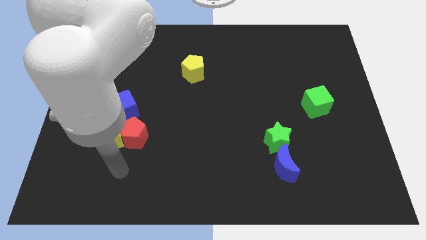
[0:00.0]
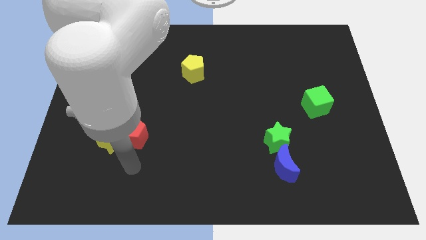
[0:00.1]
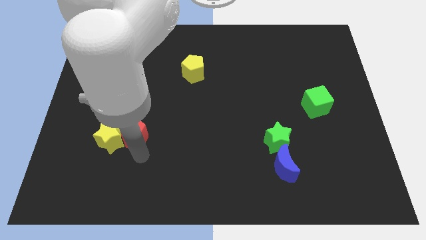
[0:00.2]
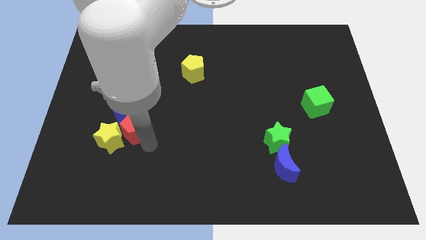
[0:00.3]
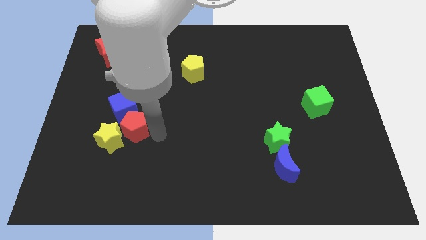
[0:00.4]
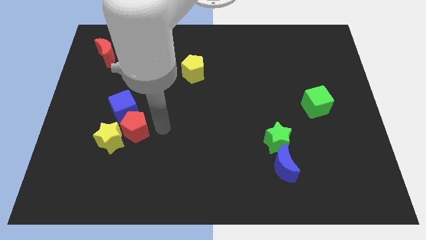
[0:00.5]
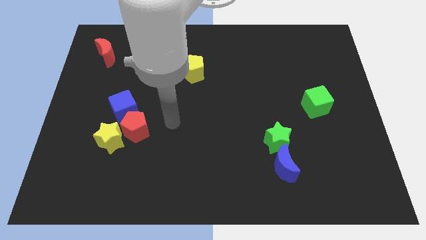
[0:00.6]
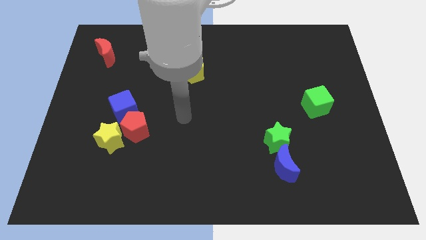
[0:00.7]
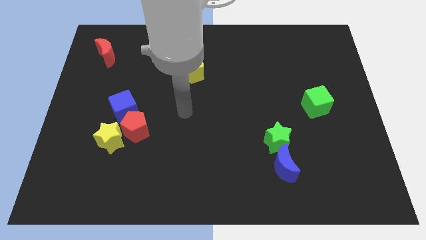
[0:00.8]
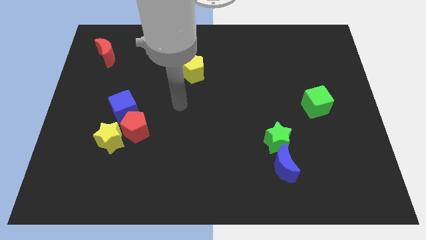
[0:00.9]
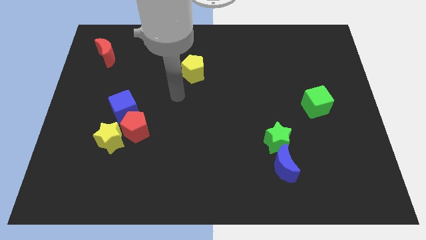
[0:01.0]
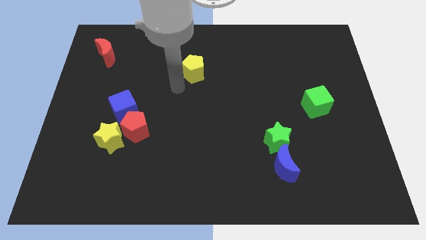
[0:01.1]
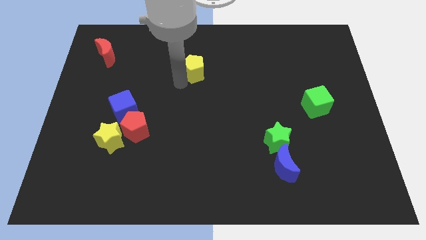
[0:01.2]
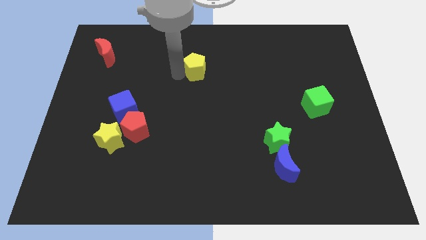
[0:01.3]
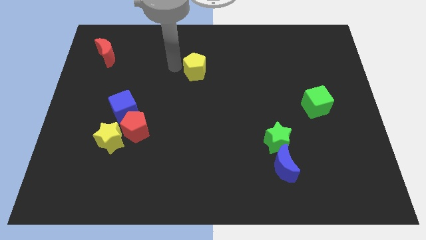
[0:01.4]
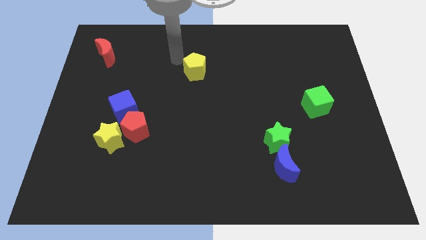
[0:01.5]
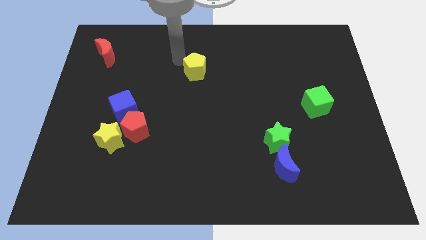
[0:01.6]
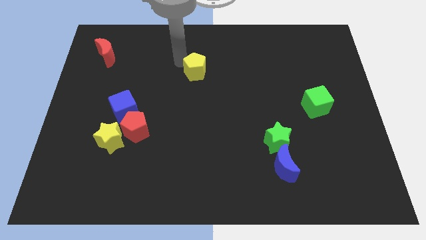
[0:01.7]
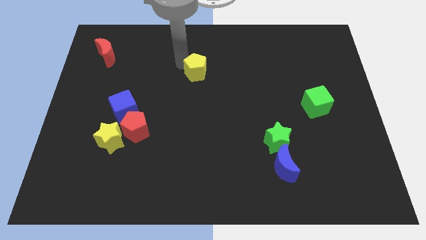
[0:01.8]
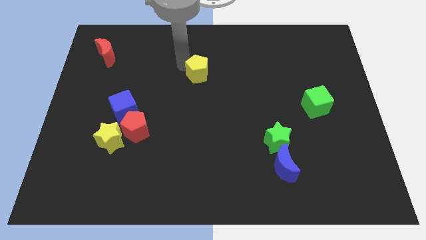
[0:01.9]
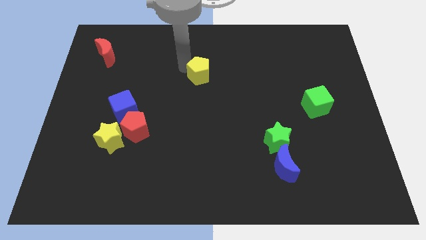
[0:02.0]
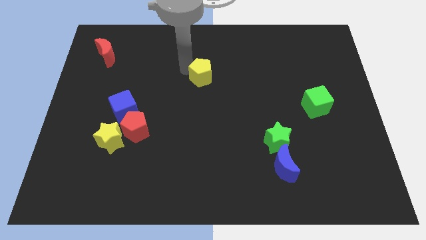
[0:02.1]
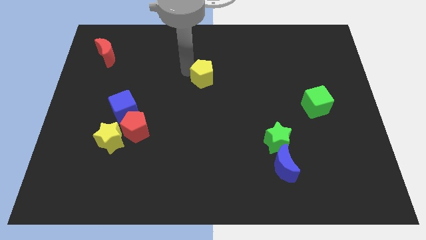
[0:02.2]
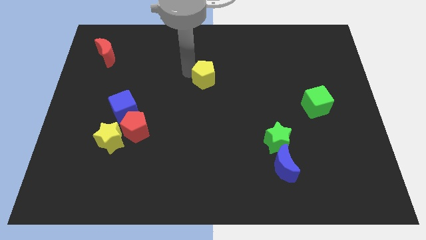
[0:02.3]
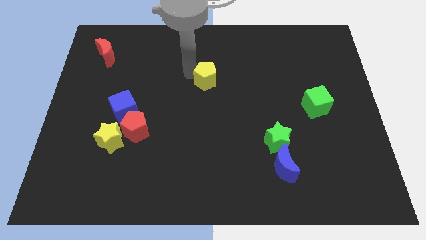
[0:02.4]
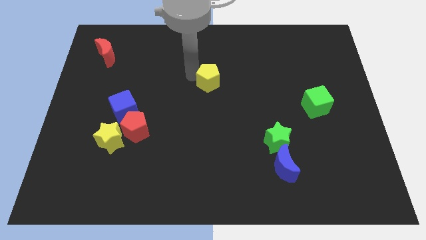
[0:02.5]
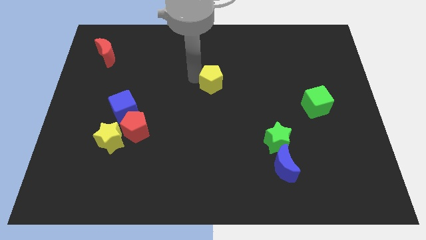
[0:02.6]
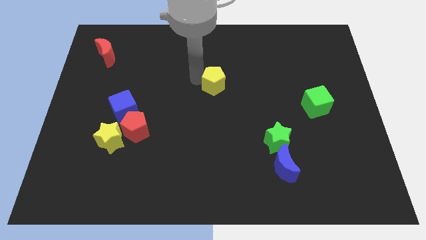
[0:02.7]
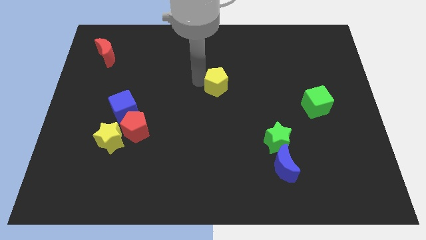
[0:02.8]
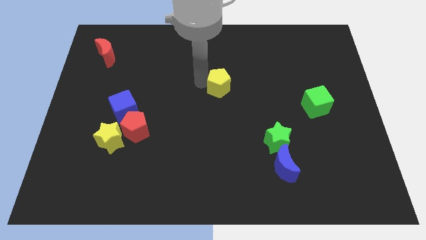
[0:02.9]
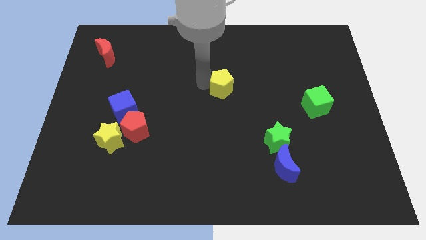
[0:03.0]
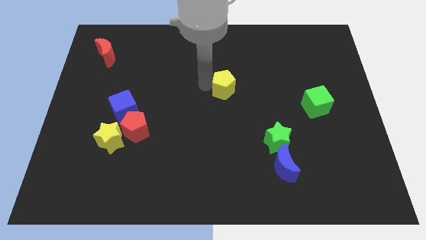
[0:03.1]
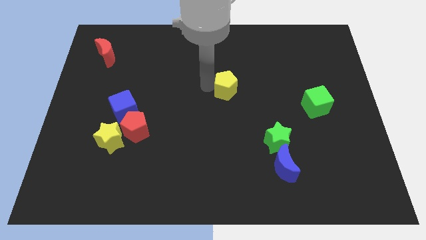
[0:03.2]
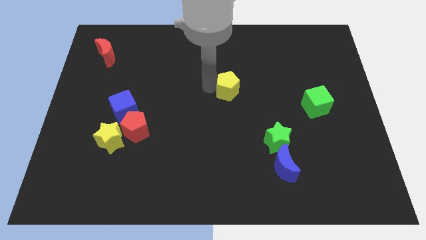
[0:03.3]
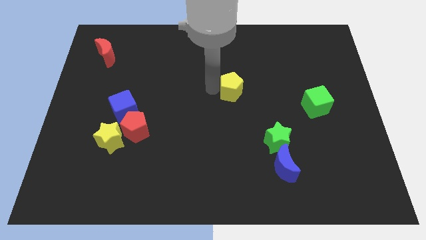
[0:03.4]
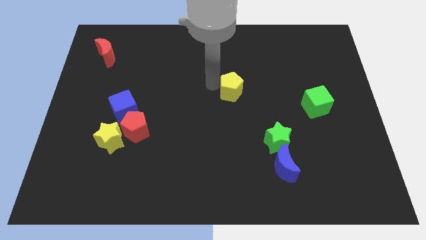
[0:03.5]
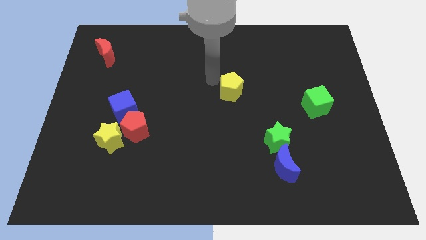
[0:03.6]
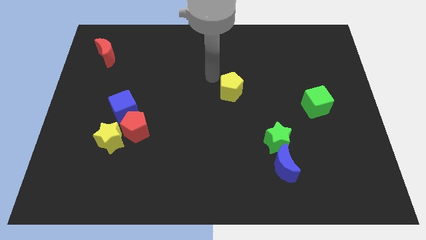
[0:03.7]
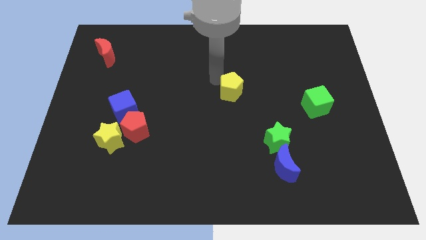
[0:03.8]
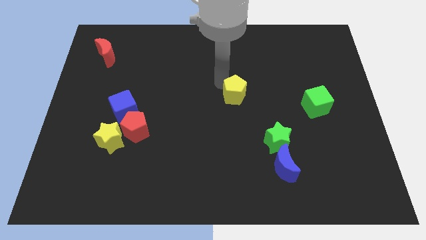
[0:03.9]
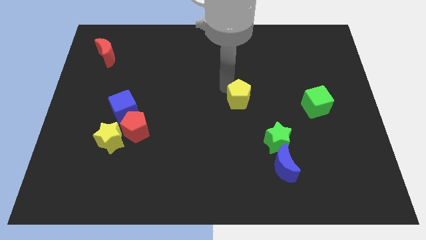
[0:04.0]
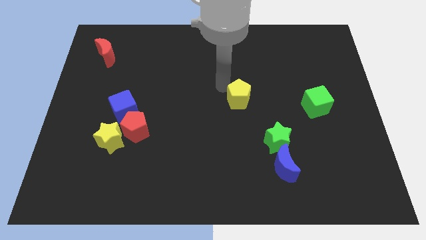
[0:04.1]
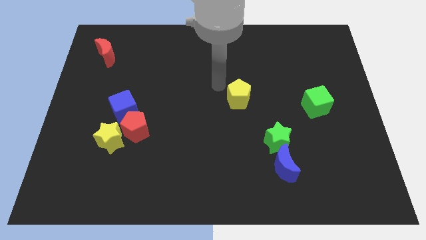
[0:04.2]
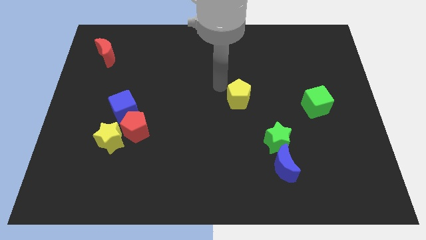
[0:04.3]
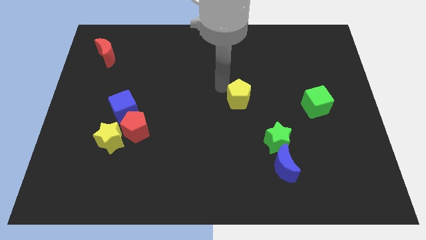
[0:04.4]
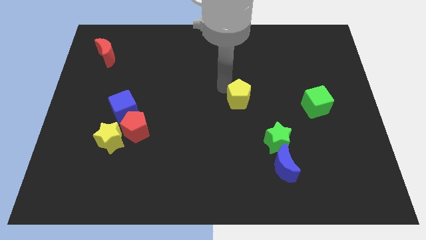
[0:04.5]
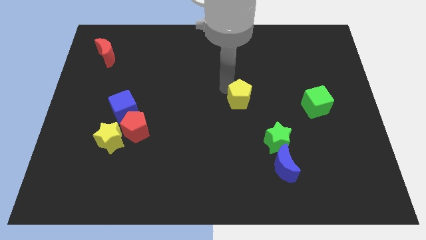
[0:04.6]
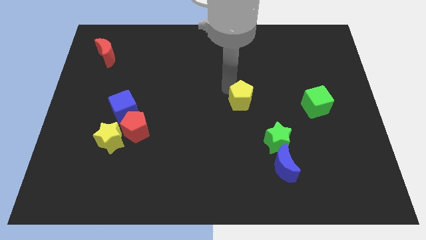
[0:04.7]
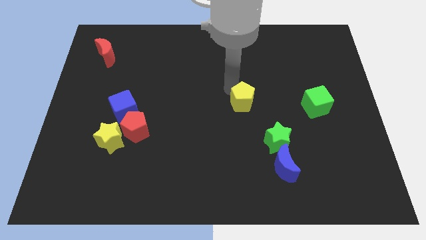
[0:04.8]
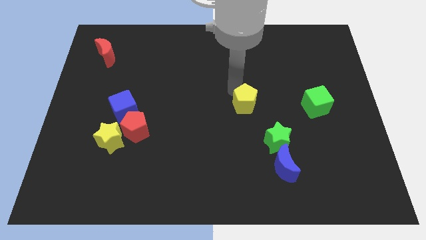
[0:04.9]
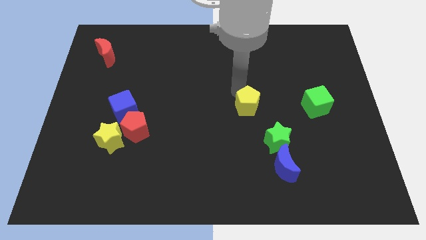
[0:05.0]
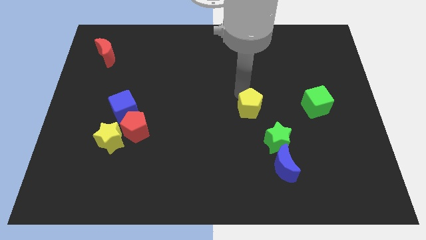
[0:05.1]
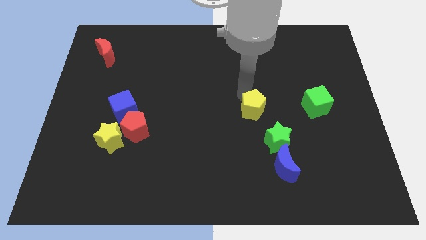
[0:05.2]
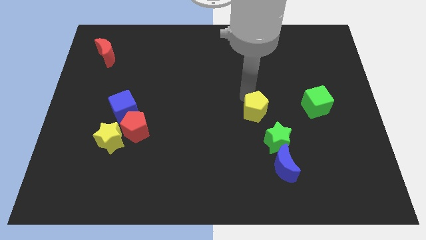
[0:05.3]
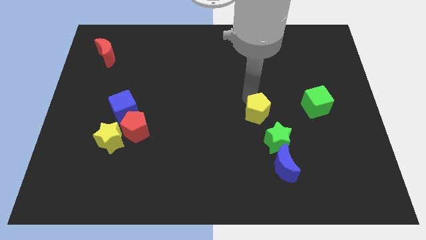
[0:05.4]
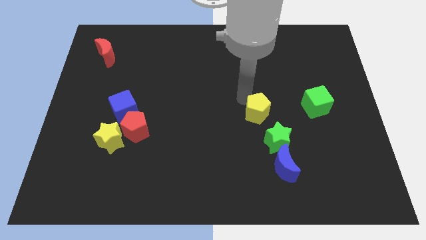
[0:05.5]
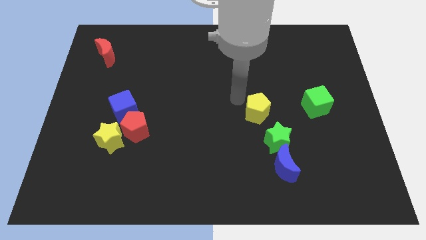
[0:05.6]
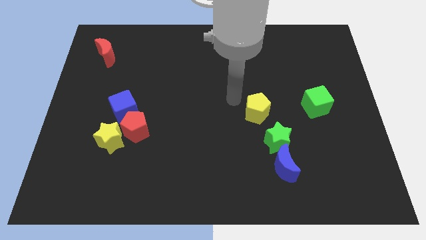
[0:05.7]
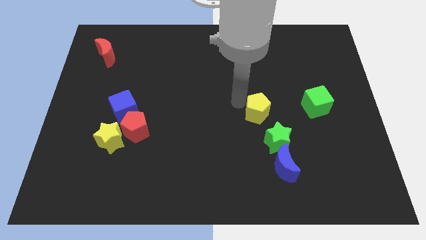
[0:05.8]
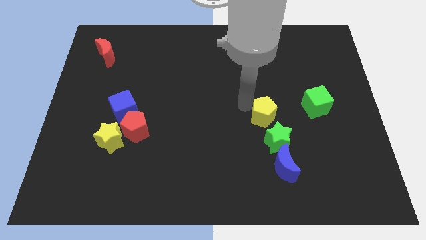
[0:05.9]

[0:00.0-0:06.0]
move the yellow pentagon diagonally downwards and to the right

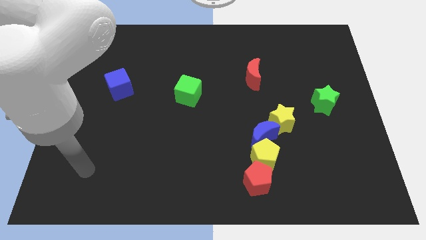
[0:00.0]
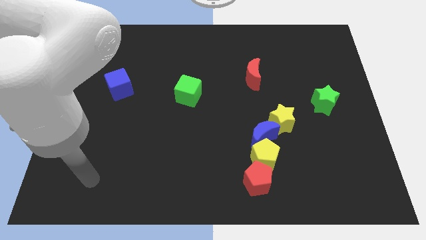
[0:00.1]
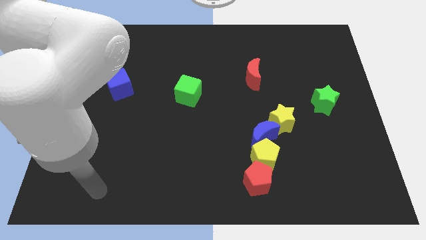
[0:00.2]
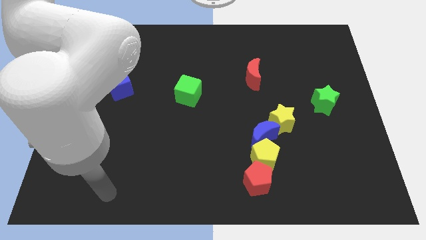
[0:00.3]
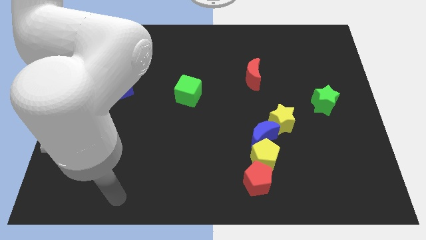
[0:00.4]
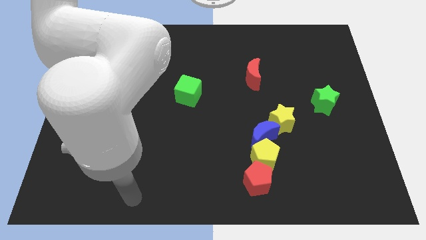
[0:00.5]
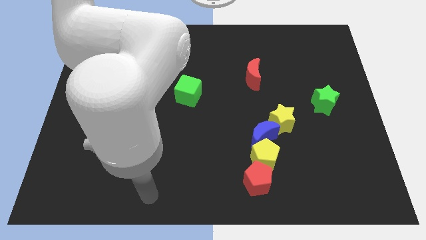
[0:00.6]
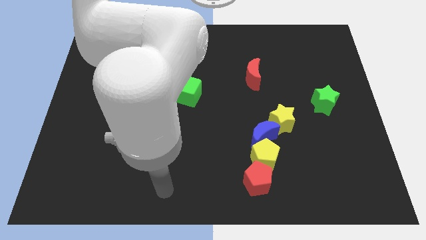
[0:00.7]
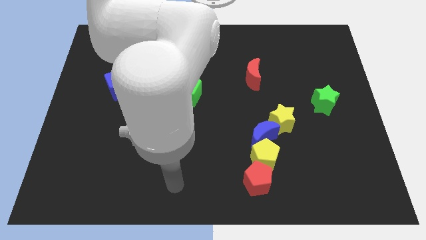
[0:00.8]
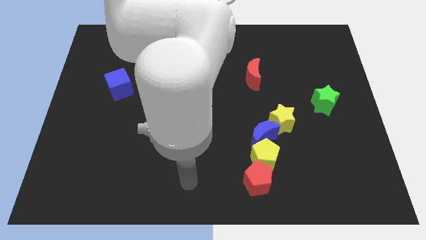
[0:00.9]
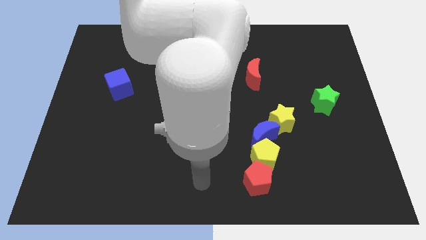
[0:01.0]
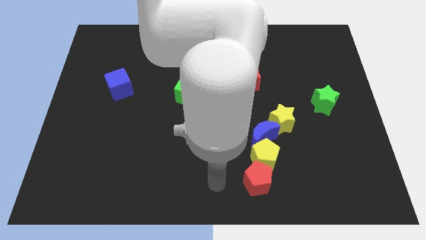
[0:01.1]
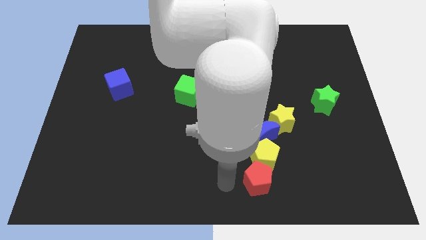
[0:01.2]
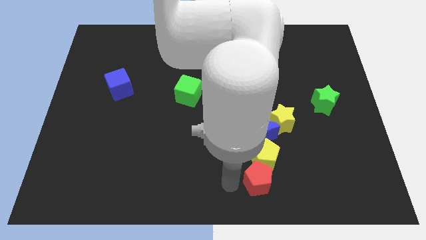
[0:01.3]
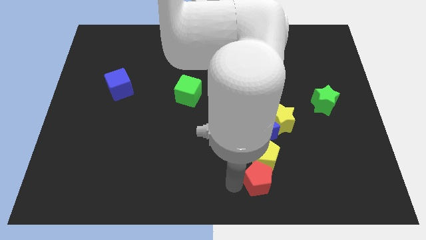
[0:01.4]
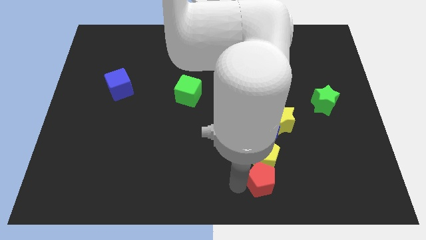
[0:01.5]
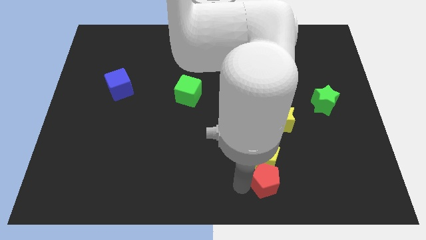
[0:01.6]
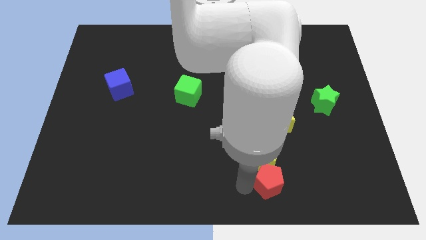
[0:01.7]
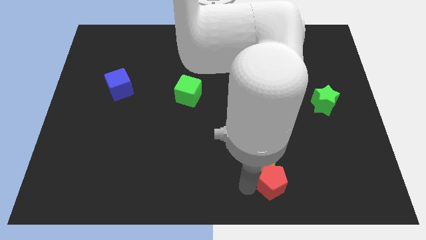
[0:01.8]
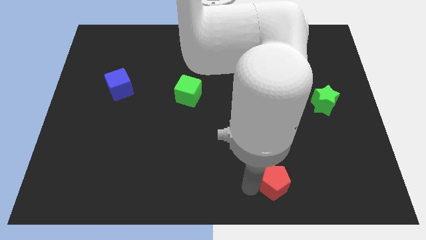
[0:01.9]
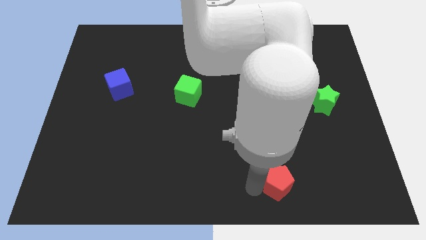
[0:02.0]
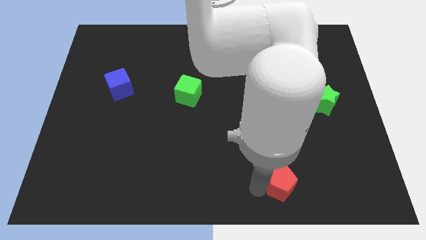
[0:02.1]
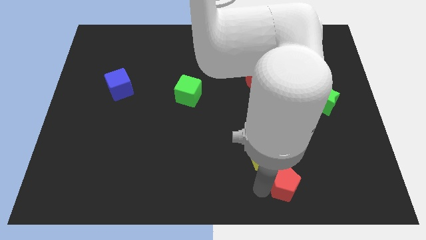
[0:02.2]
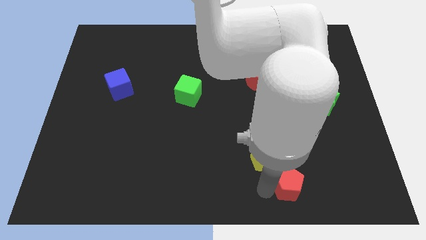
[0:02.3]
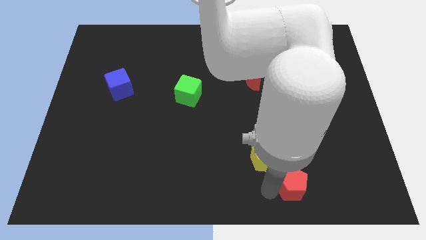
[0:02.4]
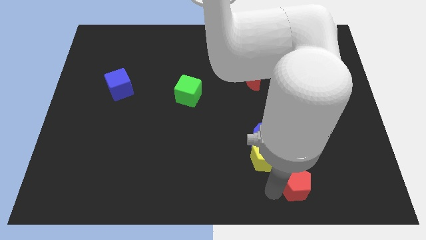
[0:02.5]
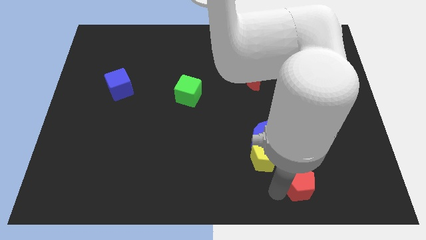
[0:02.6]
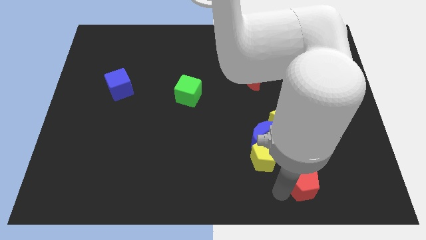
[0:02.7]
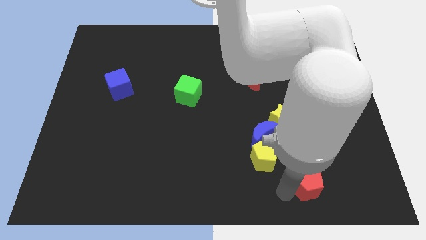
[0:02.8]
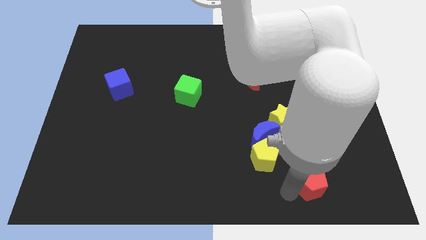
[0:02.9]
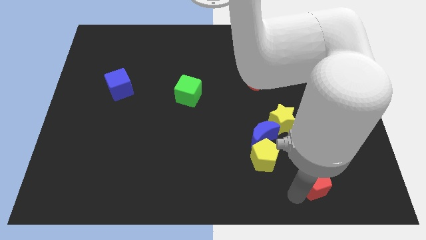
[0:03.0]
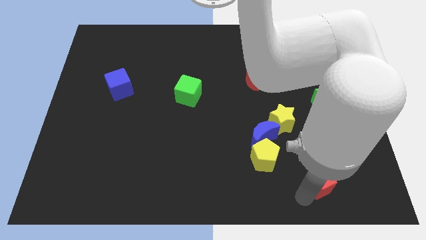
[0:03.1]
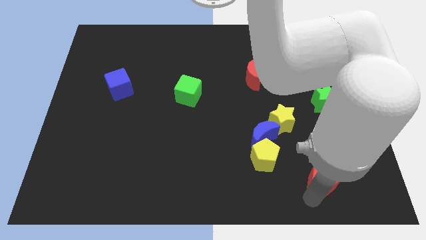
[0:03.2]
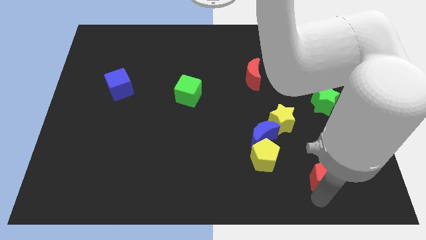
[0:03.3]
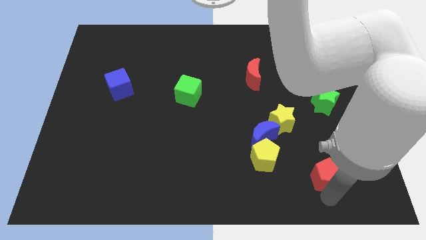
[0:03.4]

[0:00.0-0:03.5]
slide the red pentagon up and right diagonally a little bit
